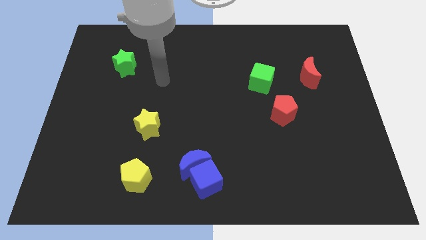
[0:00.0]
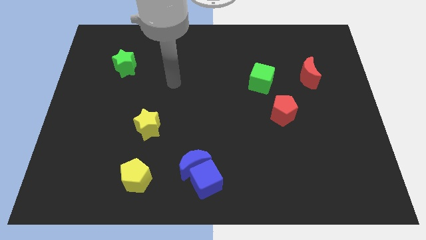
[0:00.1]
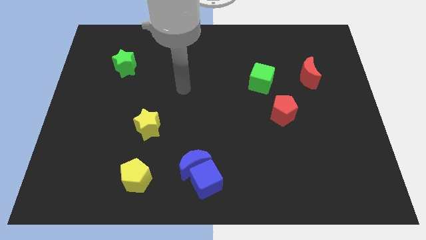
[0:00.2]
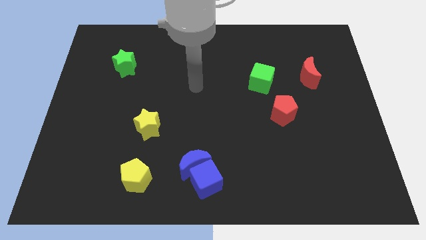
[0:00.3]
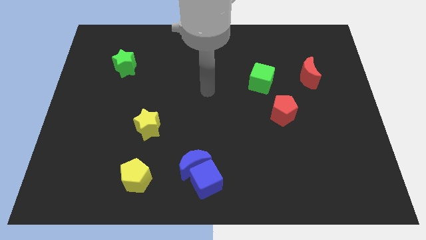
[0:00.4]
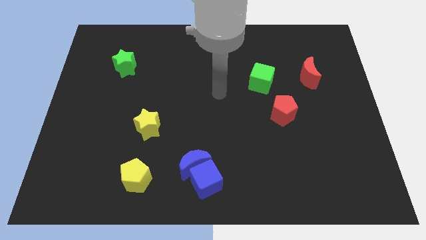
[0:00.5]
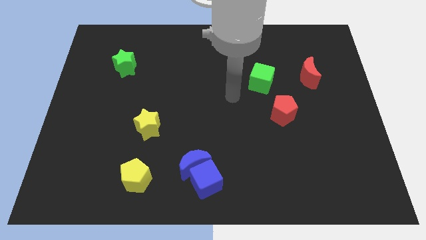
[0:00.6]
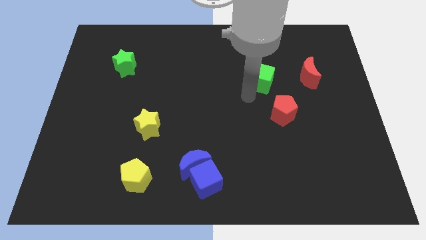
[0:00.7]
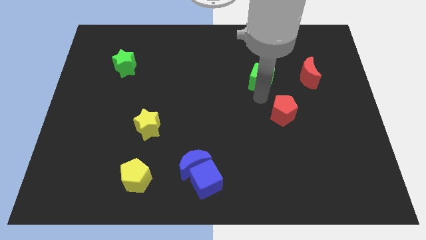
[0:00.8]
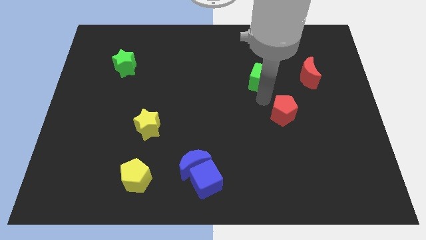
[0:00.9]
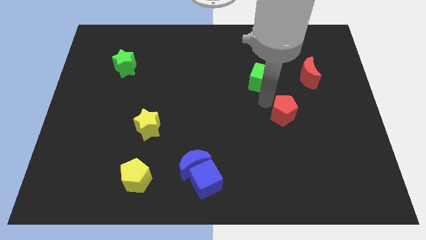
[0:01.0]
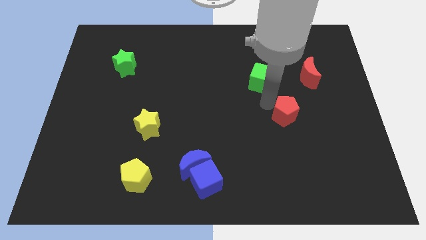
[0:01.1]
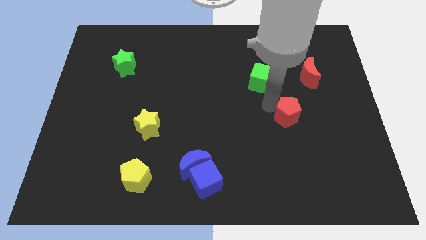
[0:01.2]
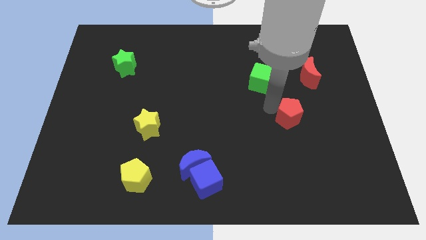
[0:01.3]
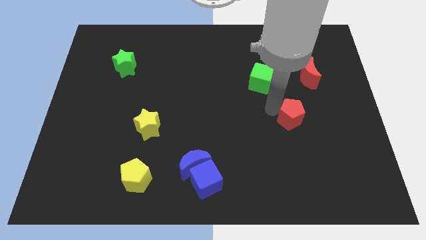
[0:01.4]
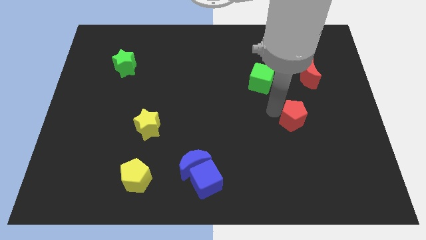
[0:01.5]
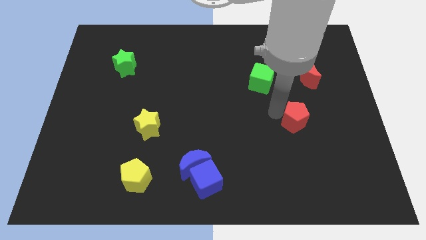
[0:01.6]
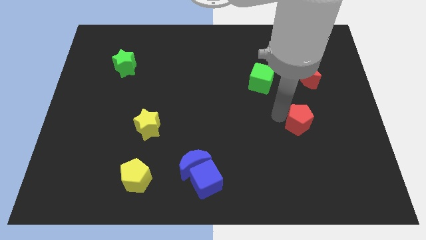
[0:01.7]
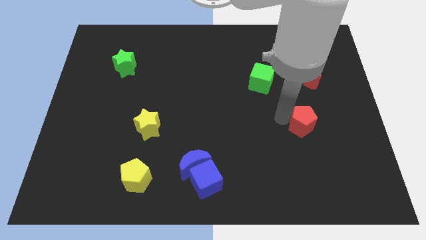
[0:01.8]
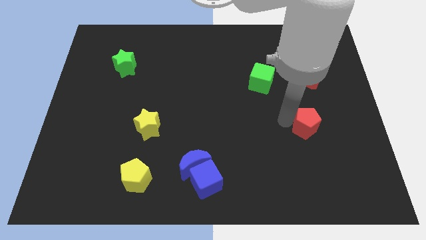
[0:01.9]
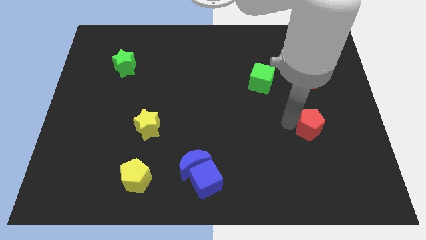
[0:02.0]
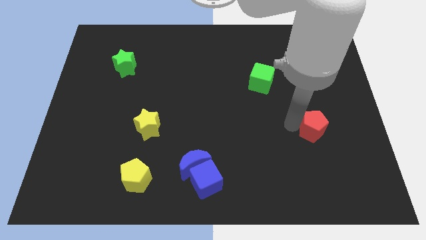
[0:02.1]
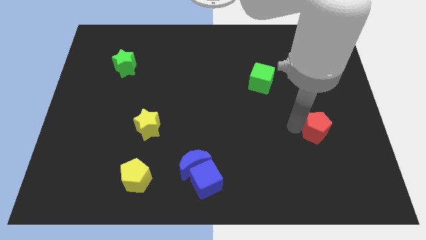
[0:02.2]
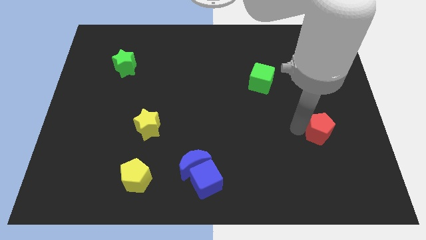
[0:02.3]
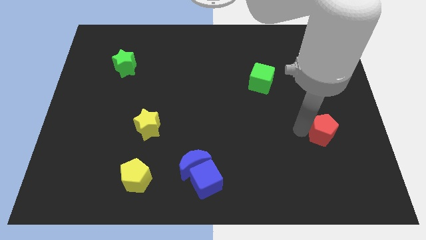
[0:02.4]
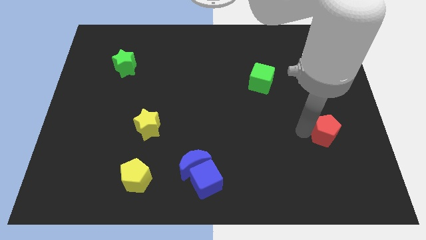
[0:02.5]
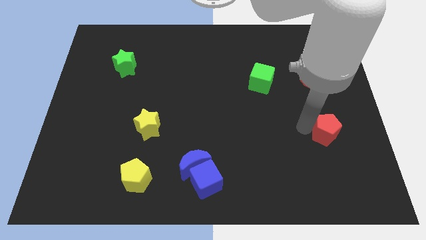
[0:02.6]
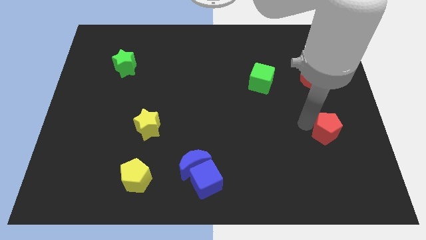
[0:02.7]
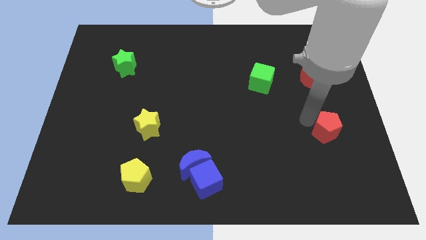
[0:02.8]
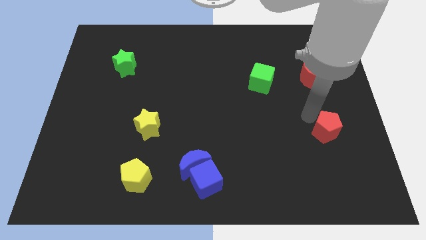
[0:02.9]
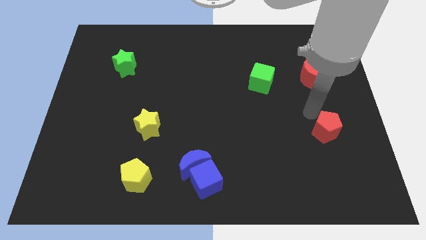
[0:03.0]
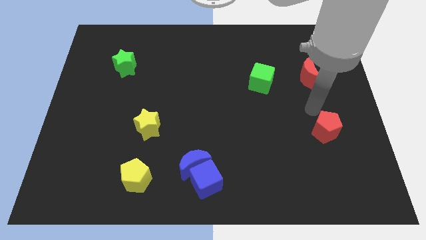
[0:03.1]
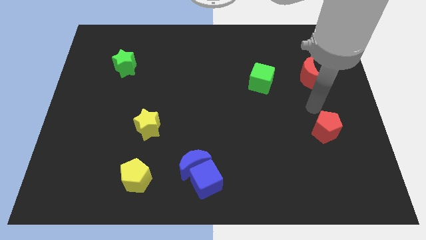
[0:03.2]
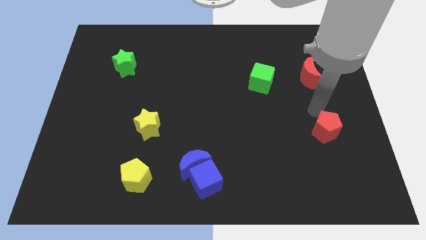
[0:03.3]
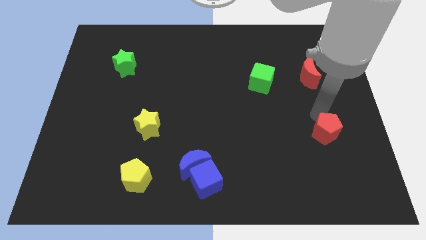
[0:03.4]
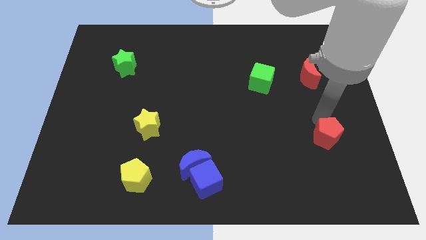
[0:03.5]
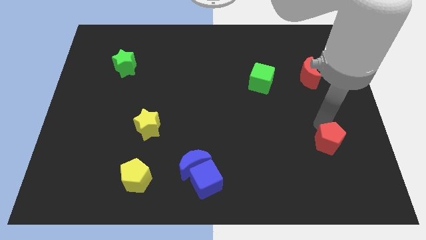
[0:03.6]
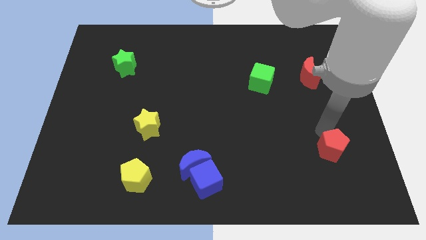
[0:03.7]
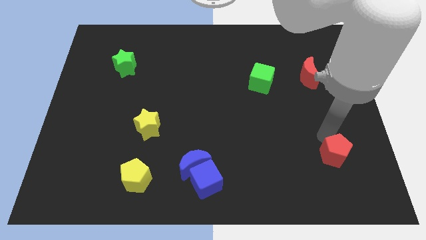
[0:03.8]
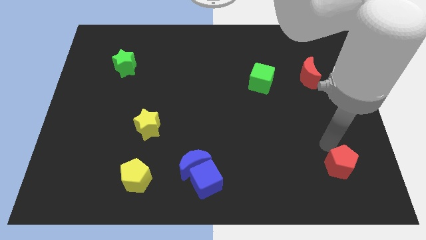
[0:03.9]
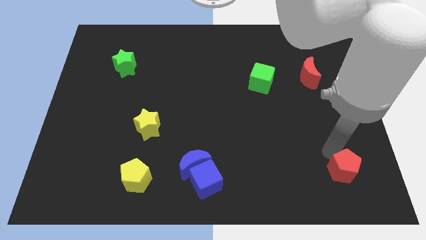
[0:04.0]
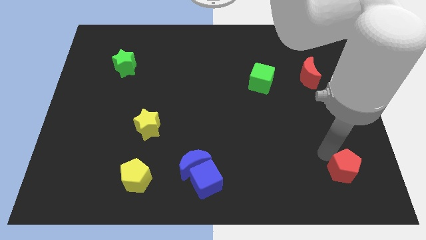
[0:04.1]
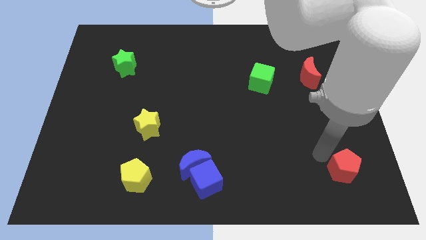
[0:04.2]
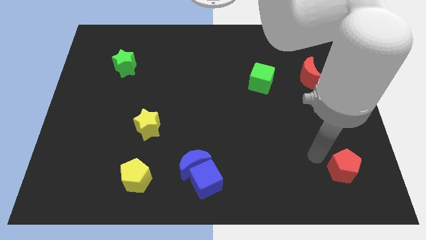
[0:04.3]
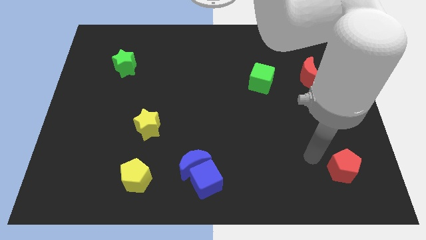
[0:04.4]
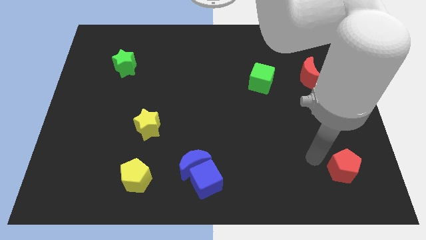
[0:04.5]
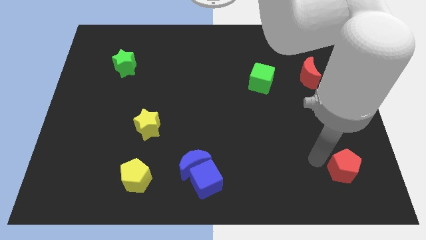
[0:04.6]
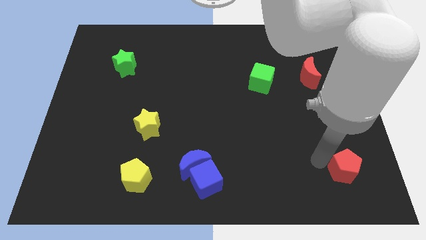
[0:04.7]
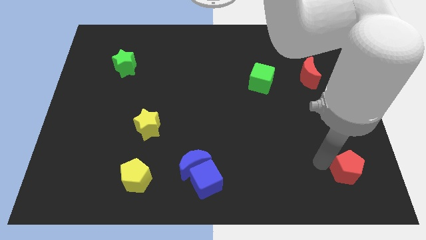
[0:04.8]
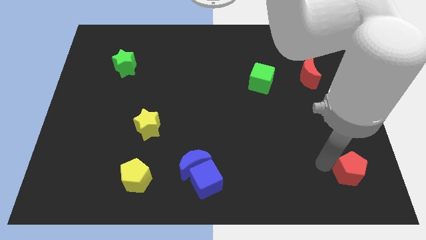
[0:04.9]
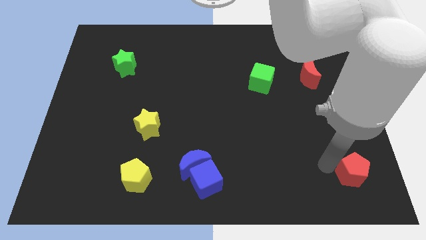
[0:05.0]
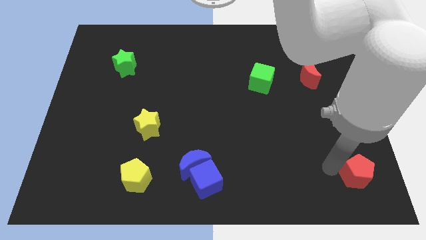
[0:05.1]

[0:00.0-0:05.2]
push the red pentagon to the bottom right corner
